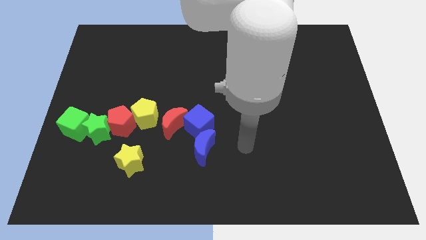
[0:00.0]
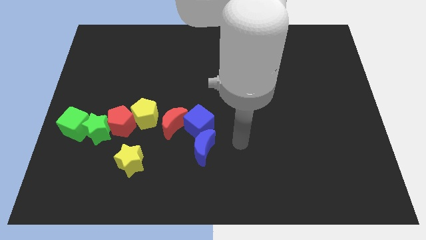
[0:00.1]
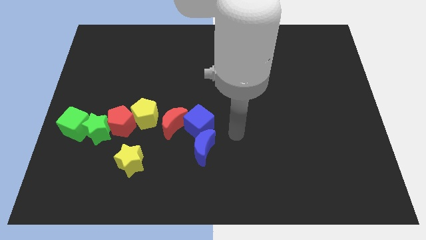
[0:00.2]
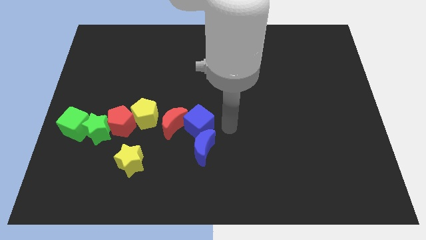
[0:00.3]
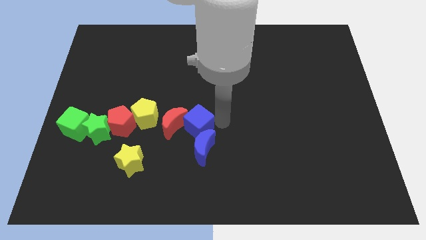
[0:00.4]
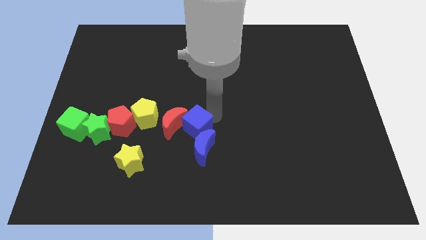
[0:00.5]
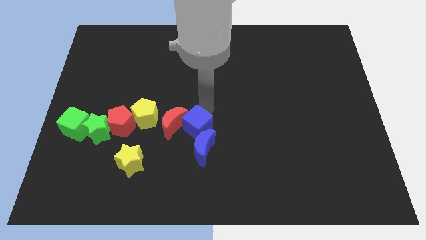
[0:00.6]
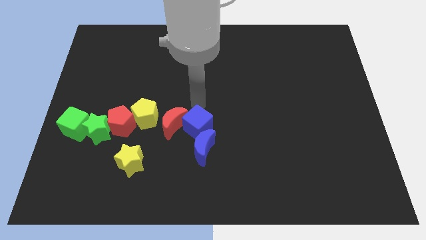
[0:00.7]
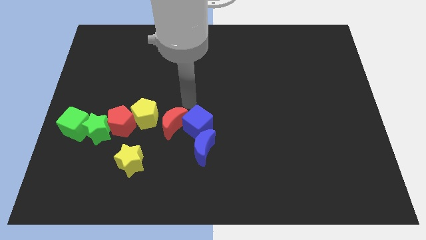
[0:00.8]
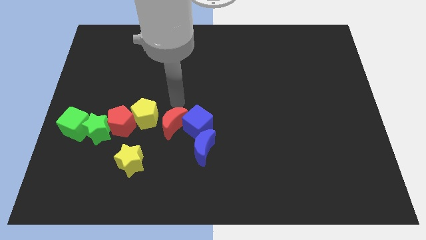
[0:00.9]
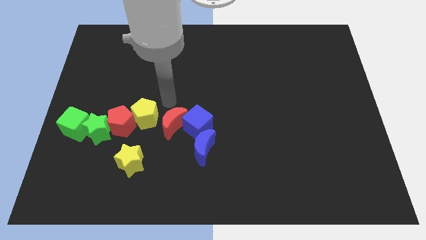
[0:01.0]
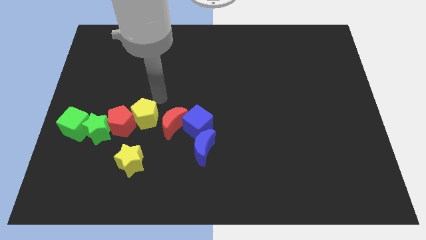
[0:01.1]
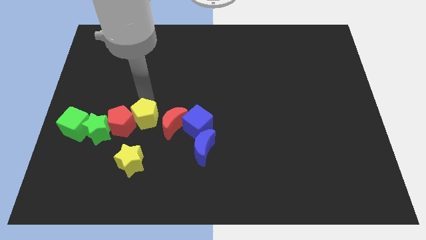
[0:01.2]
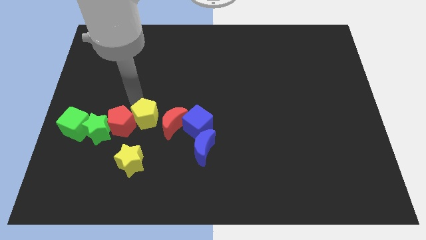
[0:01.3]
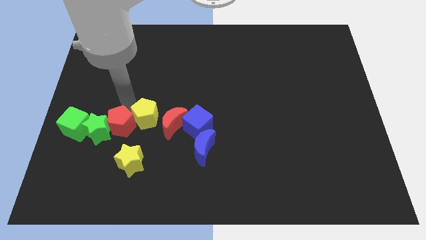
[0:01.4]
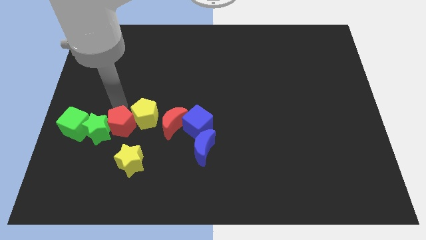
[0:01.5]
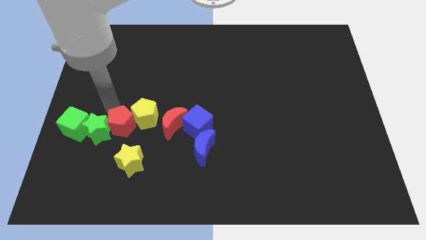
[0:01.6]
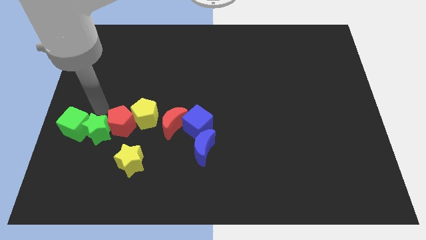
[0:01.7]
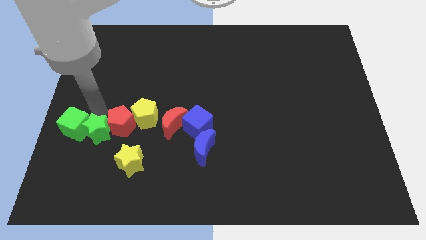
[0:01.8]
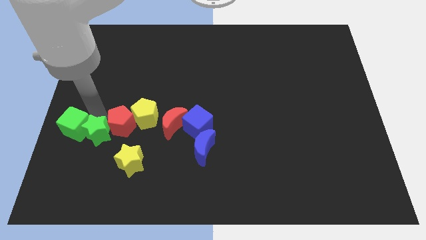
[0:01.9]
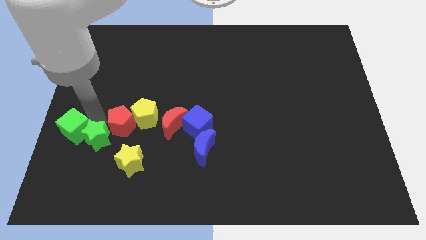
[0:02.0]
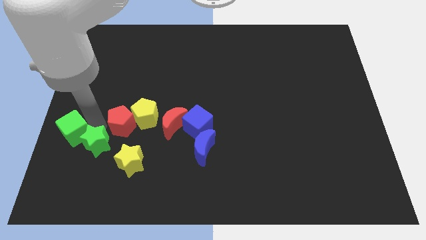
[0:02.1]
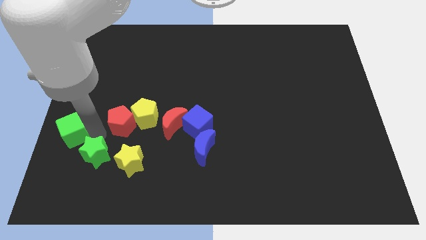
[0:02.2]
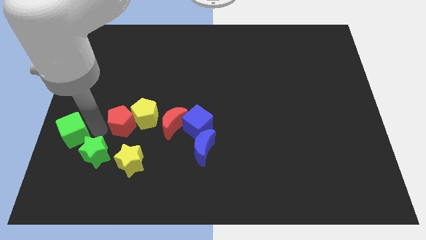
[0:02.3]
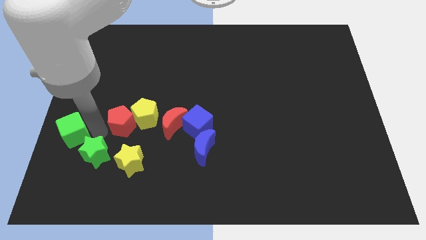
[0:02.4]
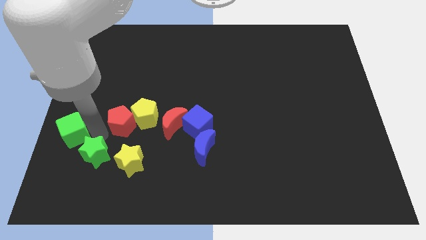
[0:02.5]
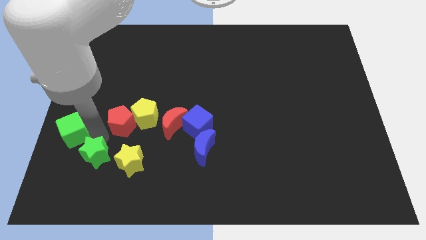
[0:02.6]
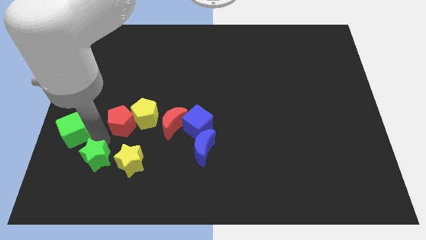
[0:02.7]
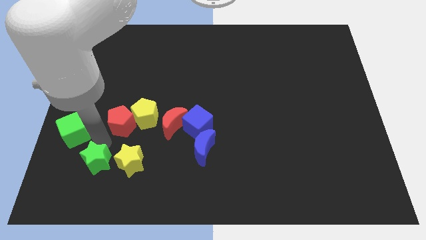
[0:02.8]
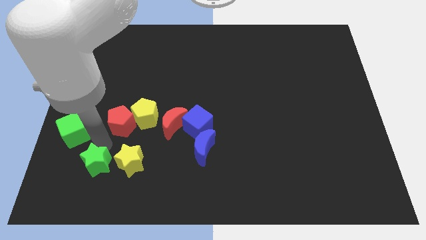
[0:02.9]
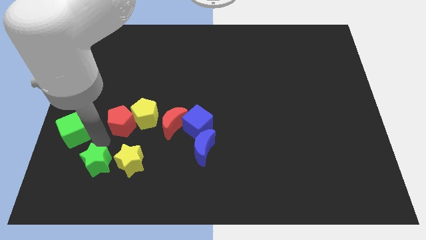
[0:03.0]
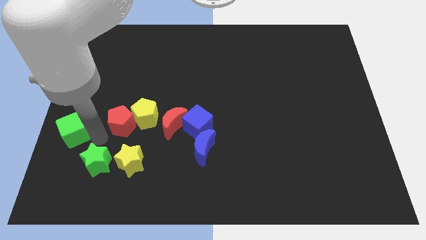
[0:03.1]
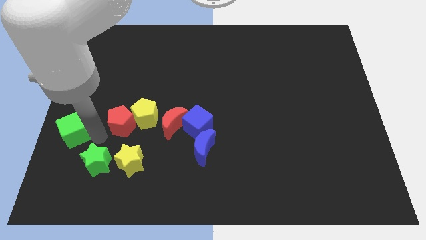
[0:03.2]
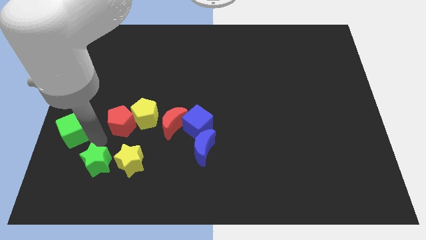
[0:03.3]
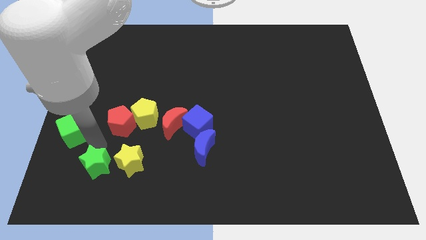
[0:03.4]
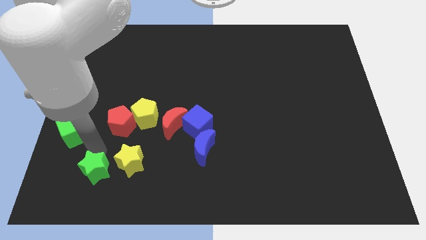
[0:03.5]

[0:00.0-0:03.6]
pull the green star apart from the green cube and red pentagon

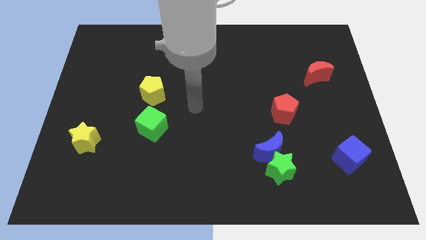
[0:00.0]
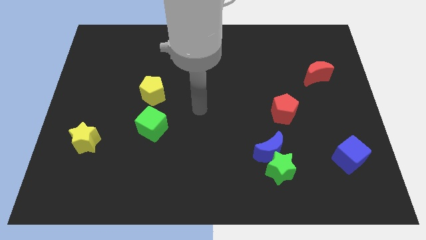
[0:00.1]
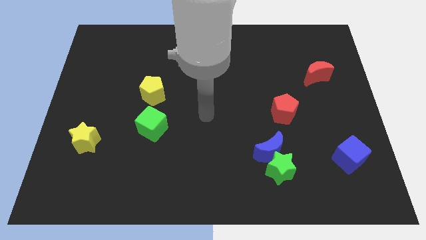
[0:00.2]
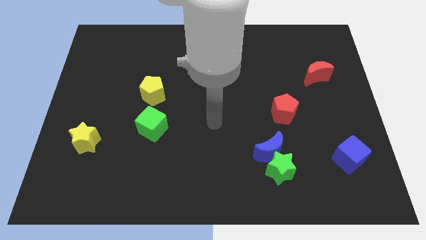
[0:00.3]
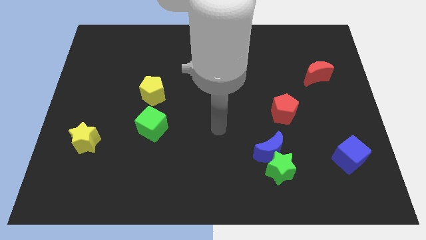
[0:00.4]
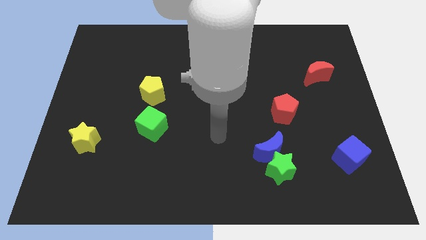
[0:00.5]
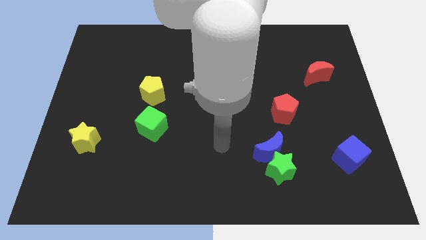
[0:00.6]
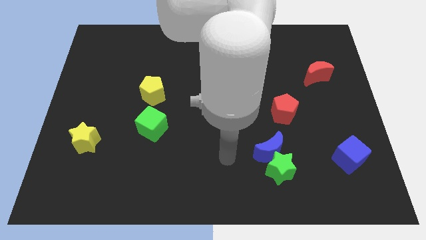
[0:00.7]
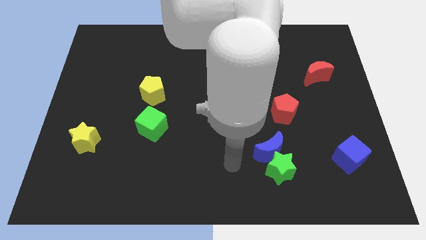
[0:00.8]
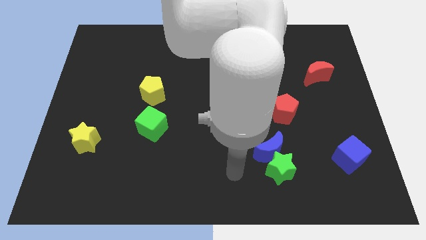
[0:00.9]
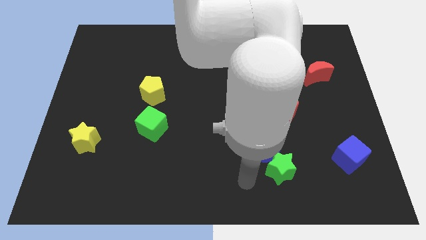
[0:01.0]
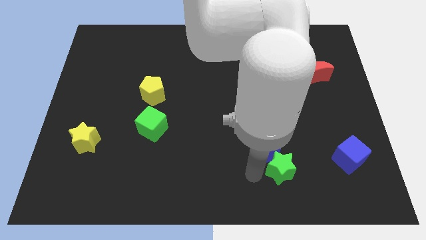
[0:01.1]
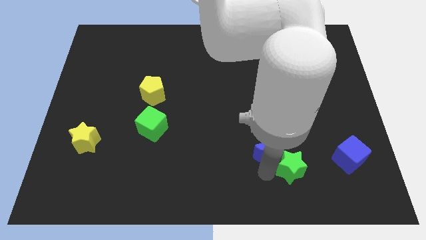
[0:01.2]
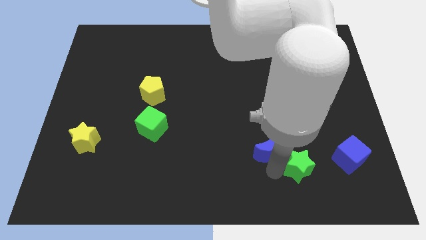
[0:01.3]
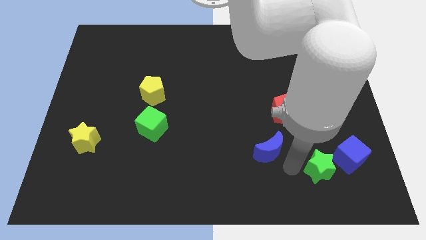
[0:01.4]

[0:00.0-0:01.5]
pull the blue moon apart from the green star

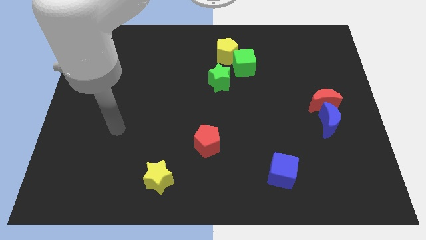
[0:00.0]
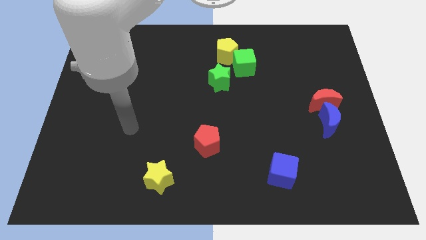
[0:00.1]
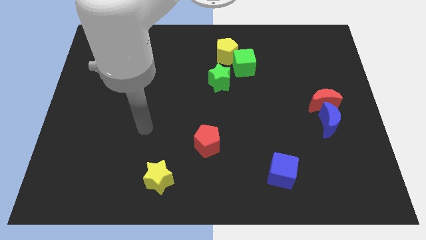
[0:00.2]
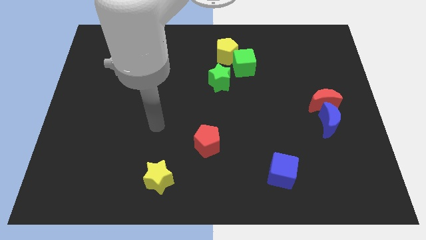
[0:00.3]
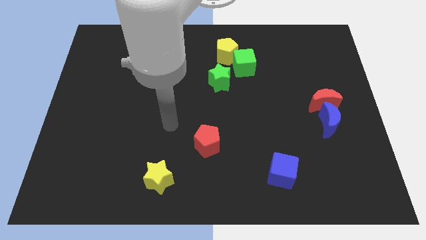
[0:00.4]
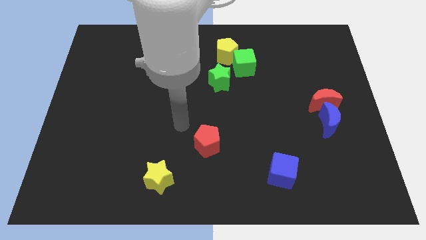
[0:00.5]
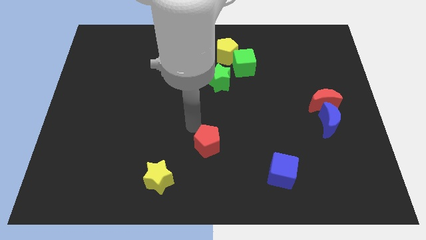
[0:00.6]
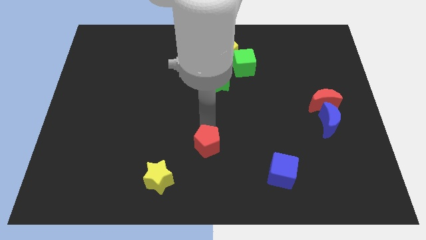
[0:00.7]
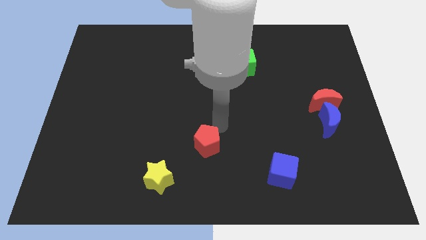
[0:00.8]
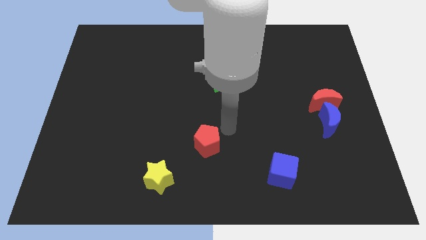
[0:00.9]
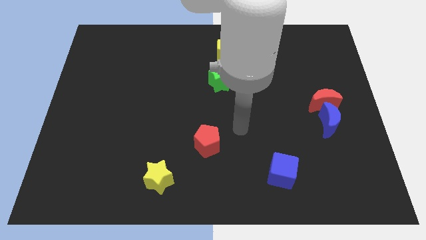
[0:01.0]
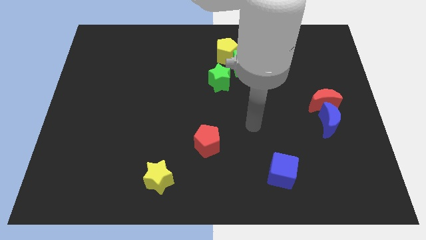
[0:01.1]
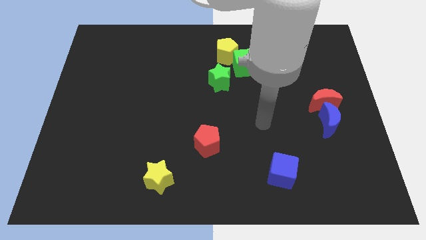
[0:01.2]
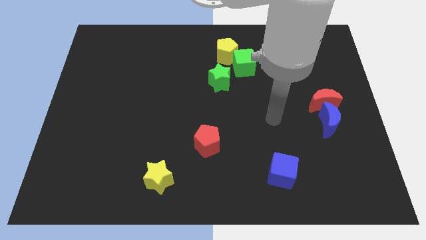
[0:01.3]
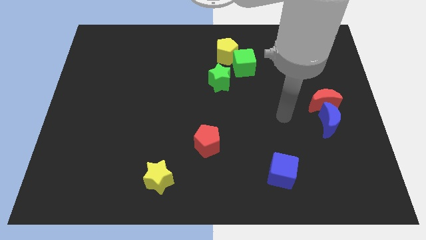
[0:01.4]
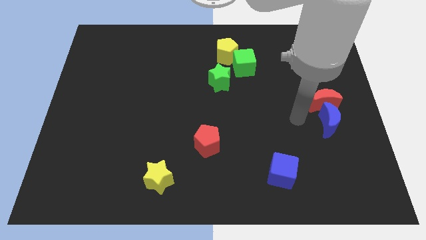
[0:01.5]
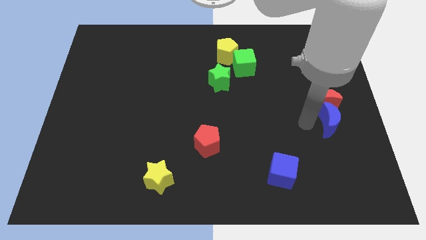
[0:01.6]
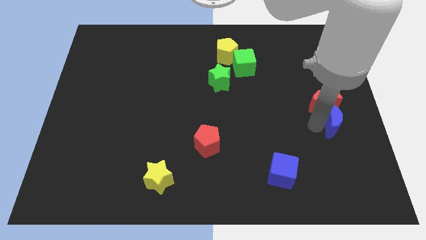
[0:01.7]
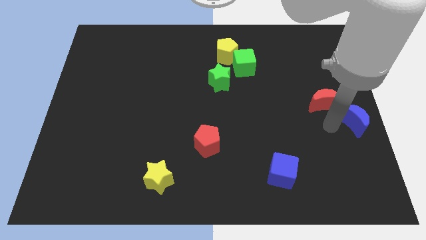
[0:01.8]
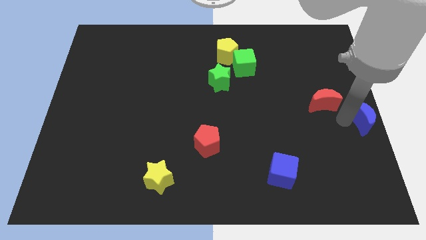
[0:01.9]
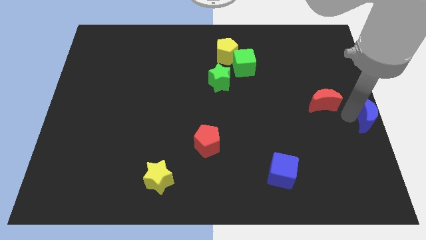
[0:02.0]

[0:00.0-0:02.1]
separate the red moon from the blue moon

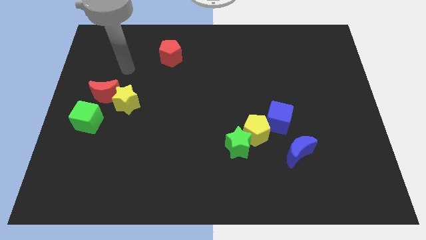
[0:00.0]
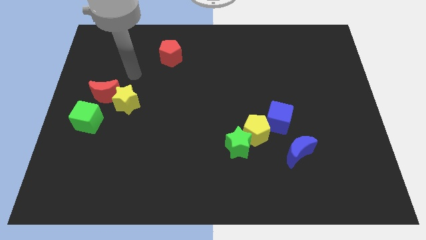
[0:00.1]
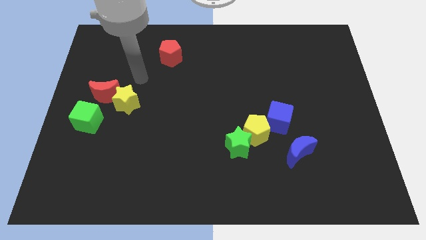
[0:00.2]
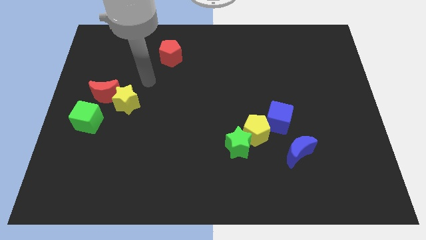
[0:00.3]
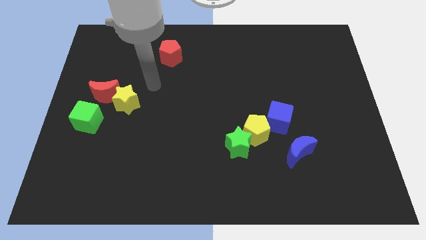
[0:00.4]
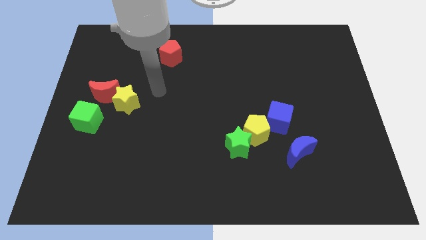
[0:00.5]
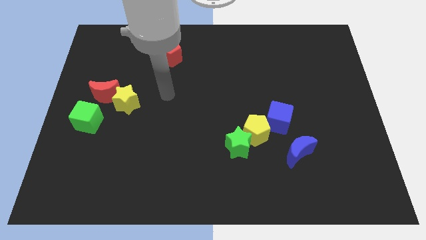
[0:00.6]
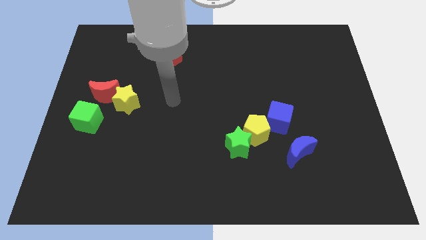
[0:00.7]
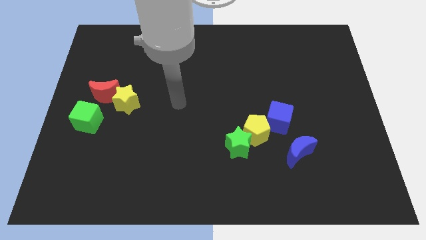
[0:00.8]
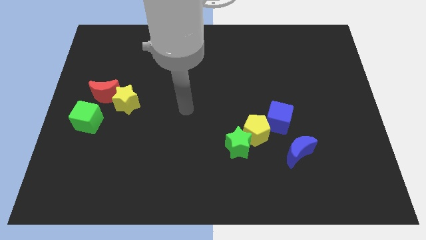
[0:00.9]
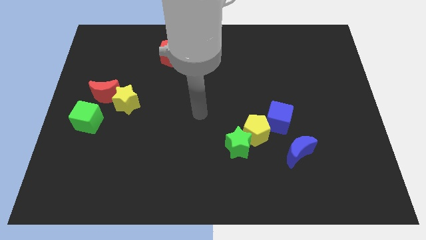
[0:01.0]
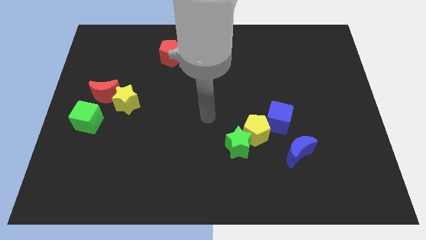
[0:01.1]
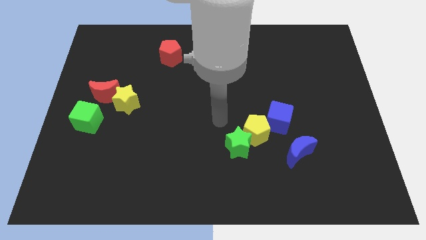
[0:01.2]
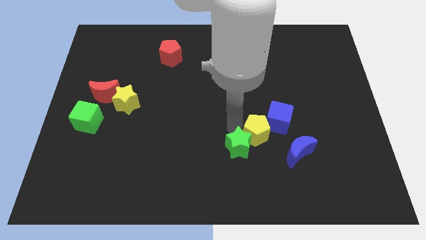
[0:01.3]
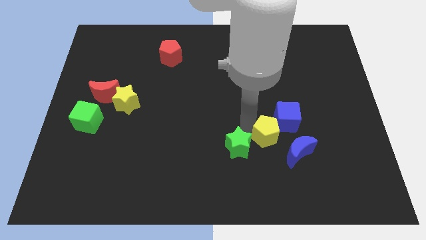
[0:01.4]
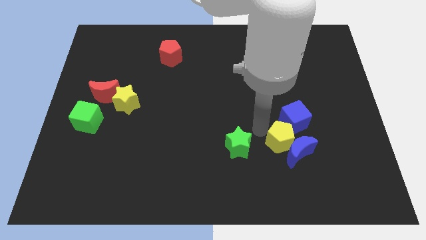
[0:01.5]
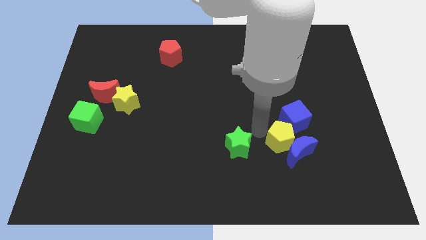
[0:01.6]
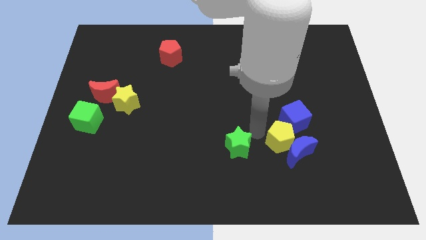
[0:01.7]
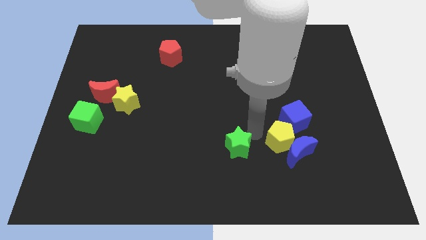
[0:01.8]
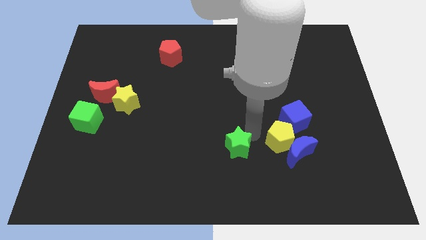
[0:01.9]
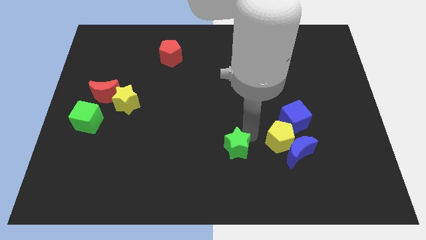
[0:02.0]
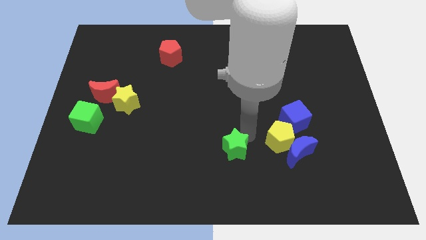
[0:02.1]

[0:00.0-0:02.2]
separate the green star from the yellow pentagon
